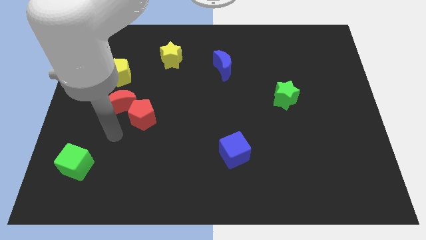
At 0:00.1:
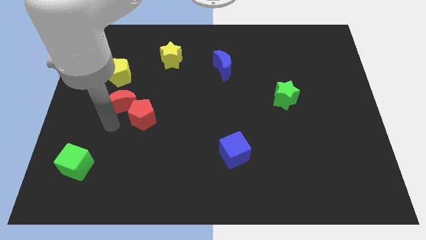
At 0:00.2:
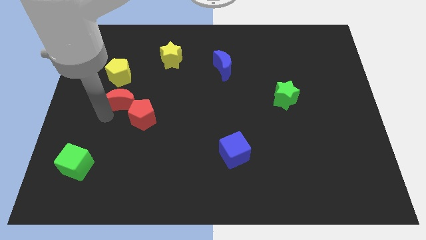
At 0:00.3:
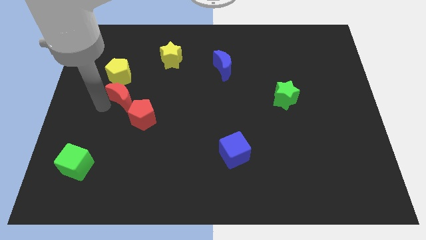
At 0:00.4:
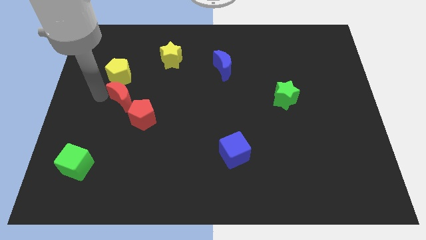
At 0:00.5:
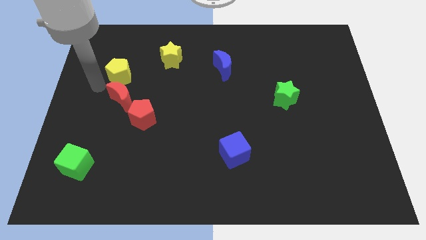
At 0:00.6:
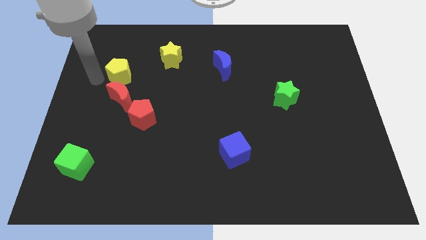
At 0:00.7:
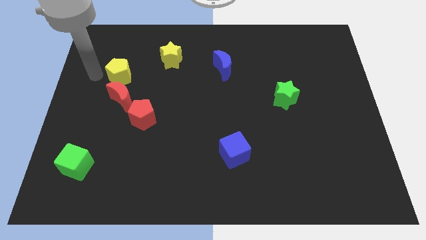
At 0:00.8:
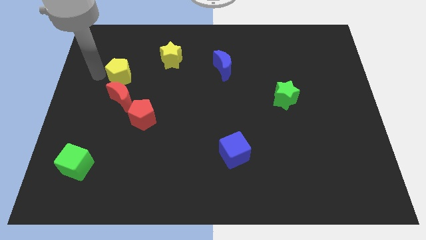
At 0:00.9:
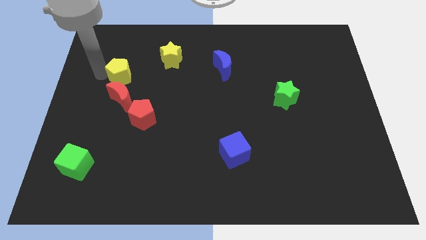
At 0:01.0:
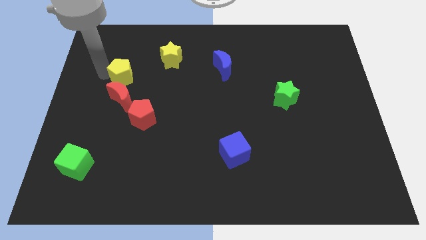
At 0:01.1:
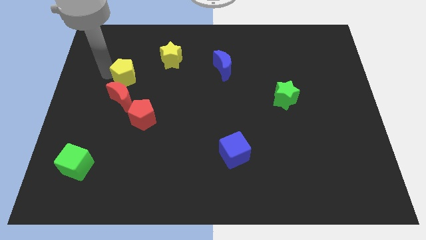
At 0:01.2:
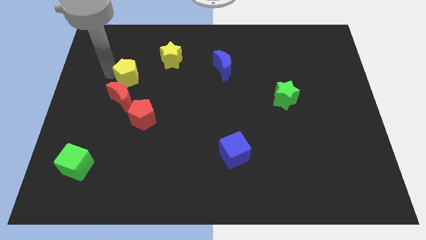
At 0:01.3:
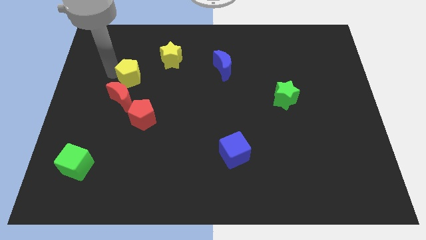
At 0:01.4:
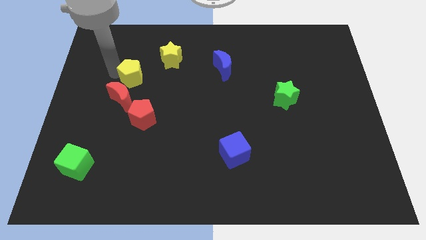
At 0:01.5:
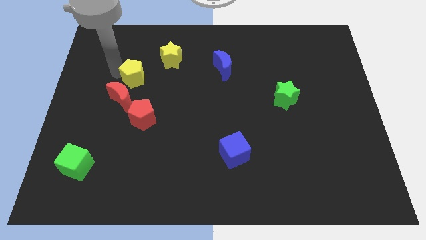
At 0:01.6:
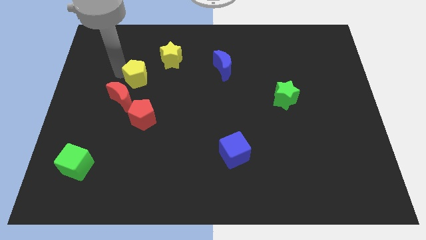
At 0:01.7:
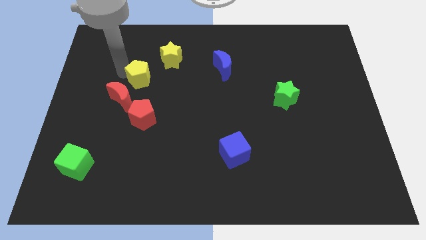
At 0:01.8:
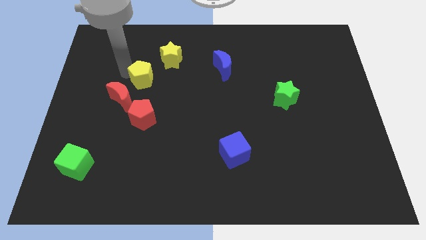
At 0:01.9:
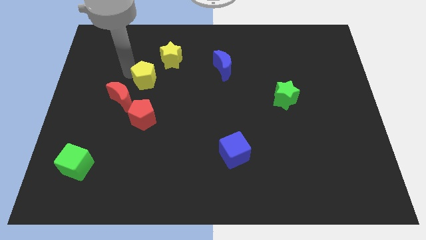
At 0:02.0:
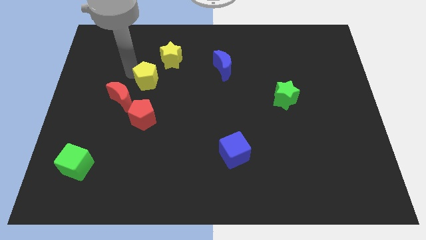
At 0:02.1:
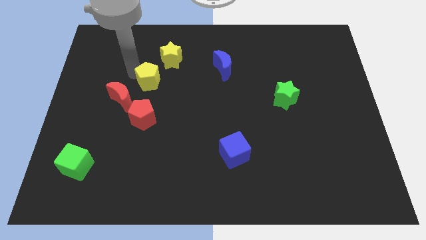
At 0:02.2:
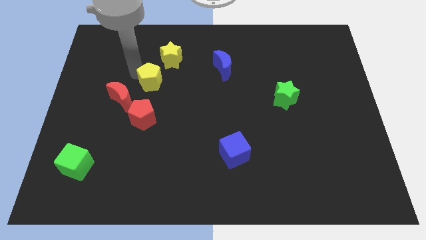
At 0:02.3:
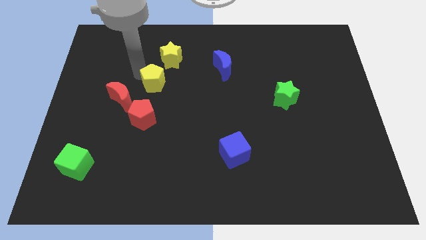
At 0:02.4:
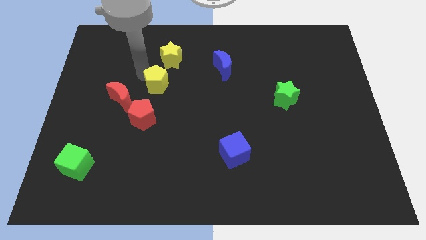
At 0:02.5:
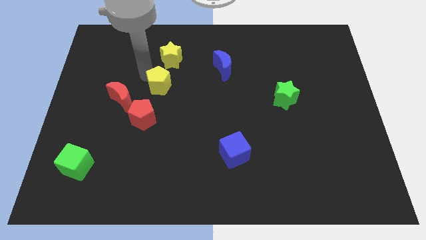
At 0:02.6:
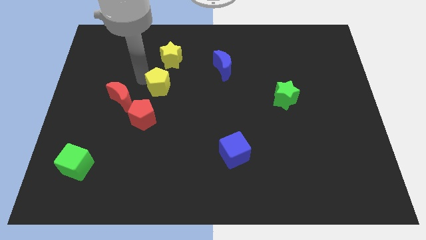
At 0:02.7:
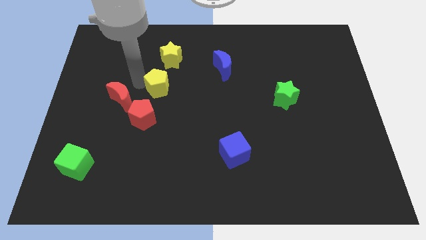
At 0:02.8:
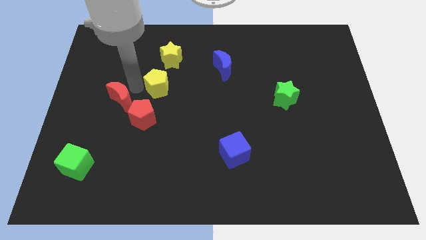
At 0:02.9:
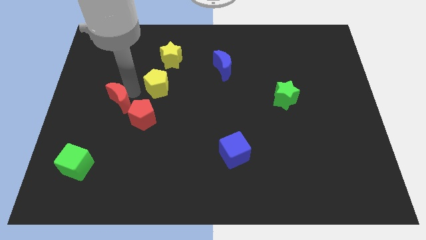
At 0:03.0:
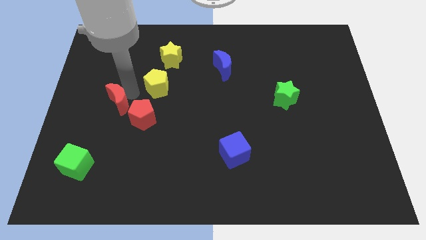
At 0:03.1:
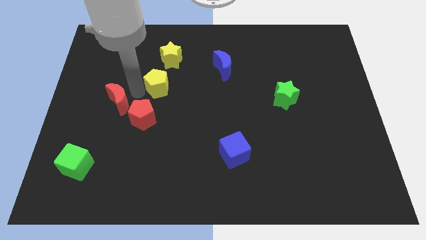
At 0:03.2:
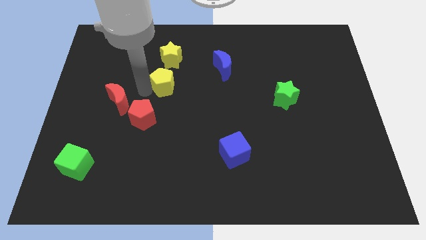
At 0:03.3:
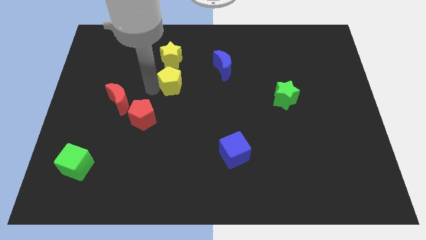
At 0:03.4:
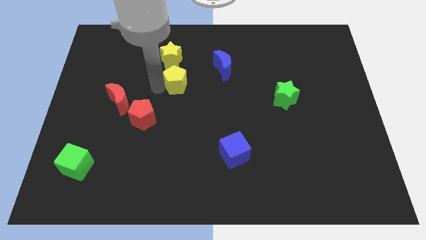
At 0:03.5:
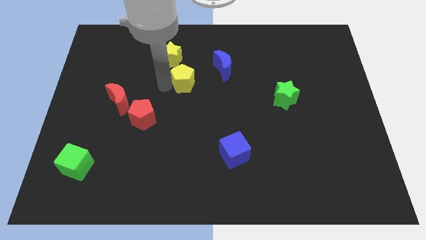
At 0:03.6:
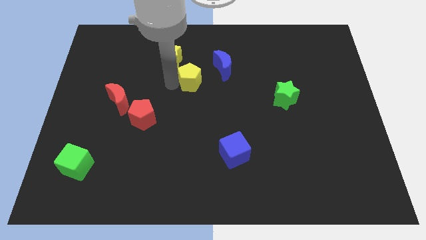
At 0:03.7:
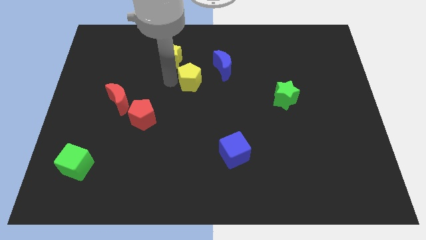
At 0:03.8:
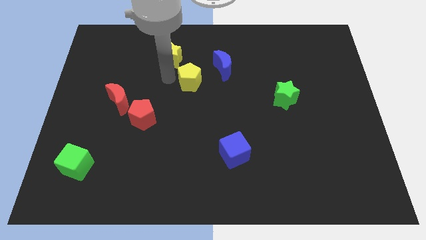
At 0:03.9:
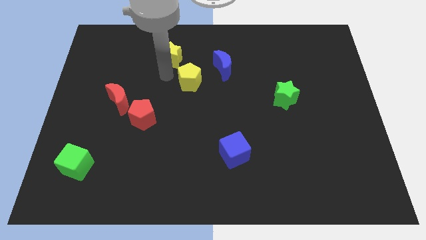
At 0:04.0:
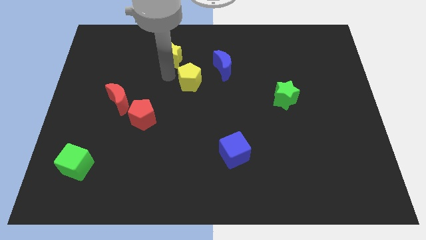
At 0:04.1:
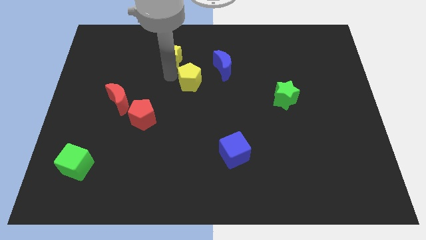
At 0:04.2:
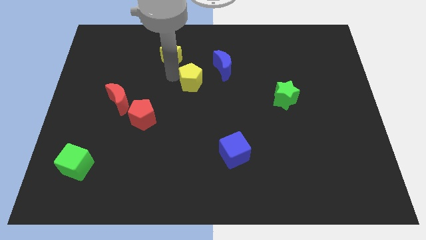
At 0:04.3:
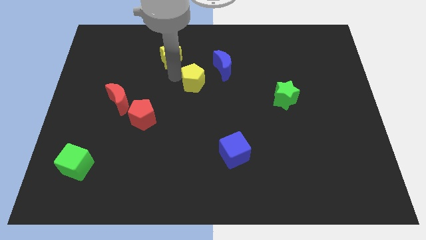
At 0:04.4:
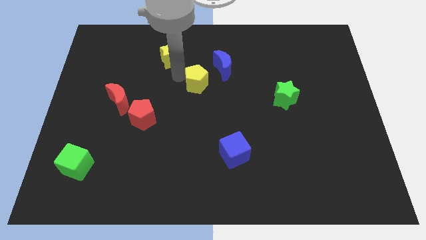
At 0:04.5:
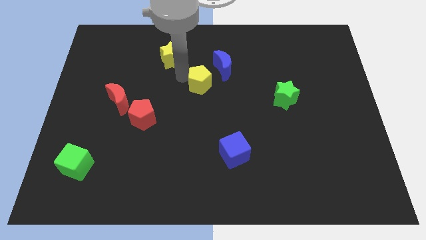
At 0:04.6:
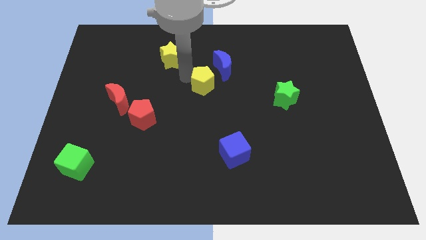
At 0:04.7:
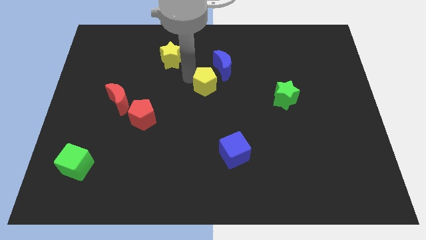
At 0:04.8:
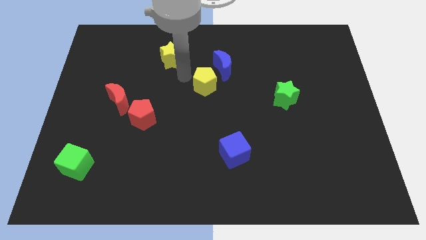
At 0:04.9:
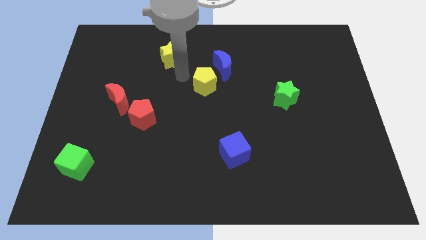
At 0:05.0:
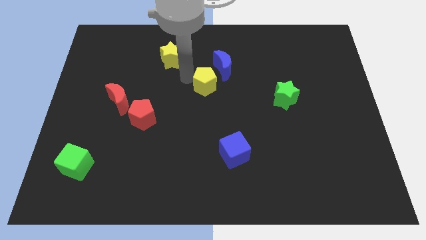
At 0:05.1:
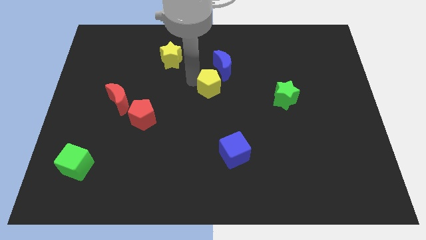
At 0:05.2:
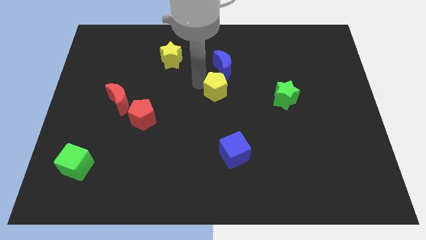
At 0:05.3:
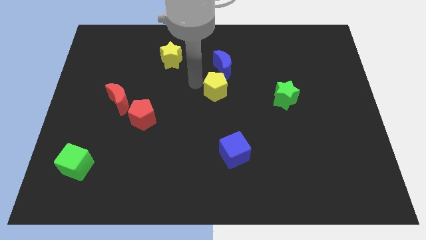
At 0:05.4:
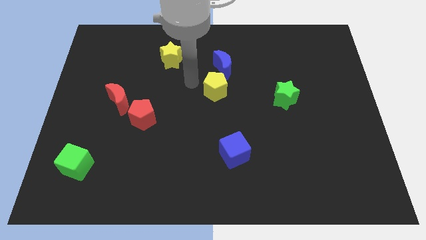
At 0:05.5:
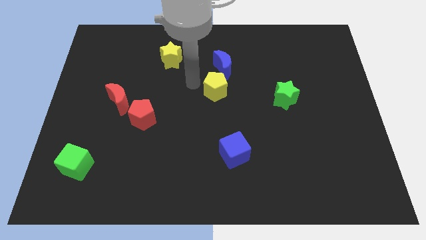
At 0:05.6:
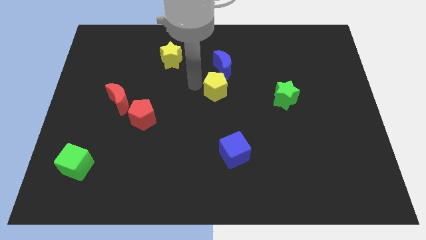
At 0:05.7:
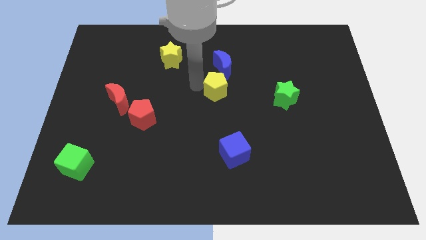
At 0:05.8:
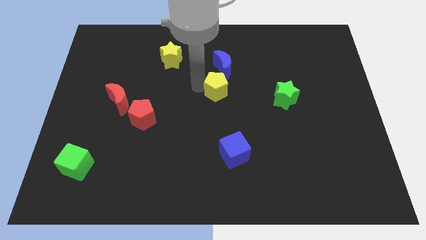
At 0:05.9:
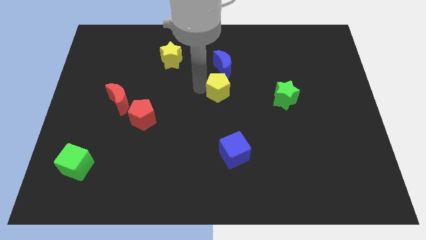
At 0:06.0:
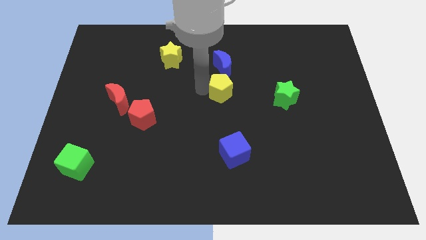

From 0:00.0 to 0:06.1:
put the yellow pentagon just left of the green star
